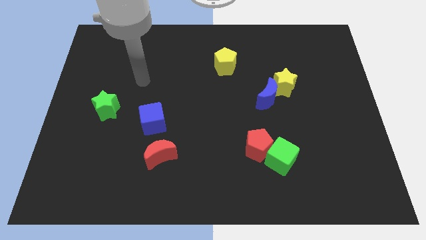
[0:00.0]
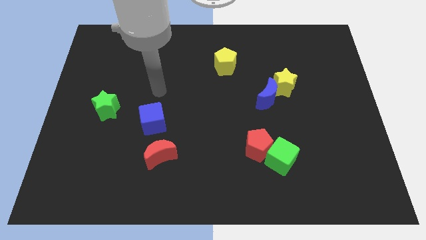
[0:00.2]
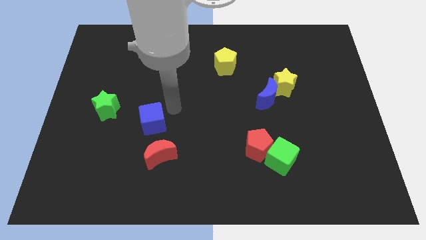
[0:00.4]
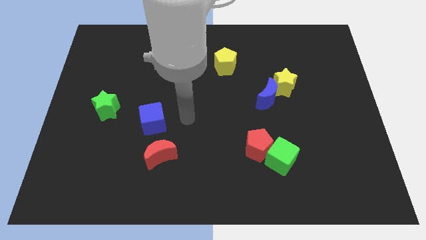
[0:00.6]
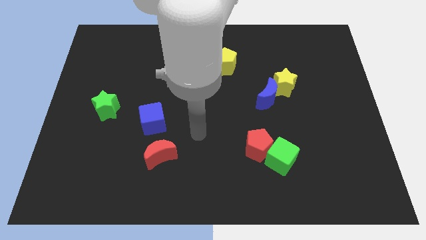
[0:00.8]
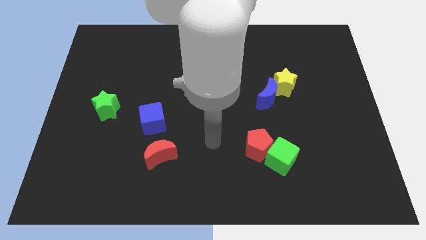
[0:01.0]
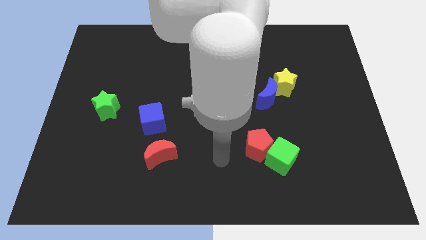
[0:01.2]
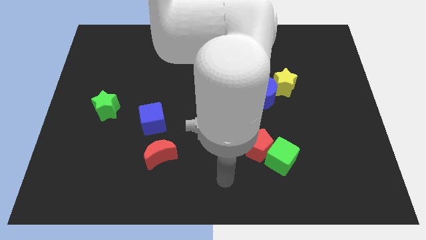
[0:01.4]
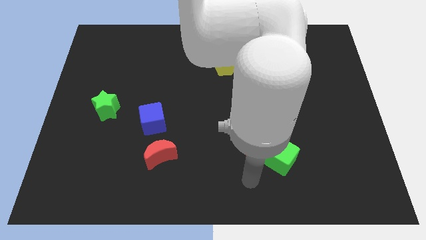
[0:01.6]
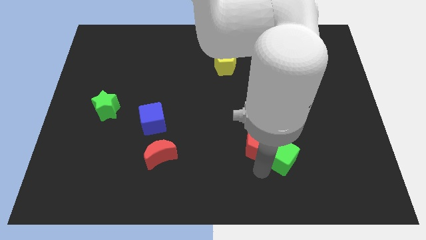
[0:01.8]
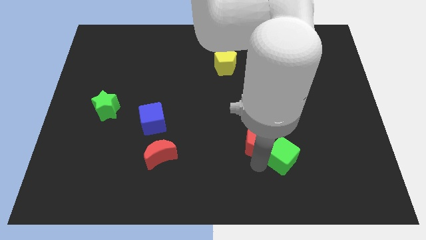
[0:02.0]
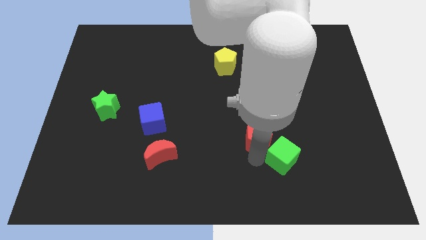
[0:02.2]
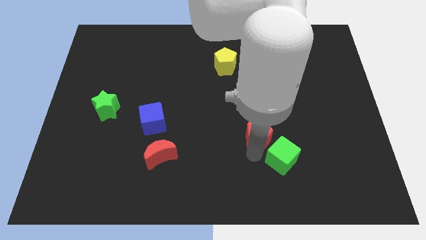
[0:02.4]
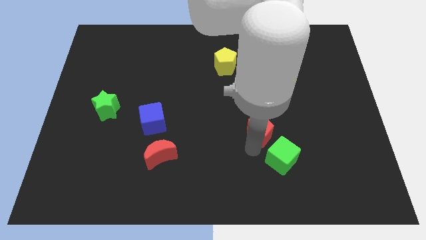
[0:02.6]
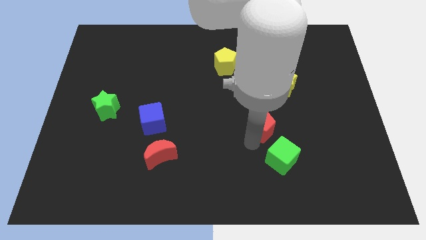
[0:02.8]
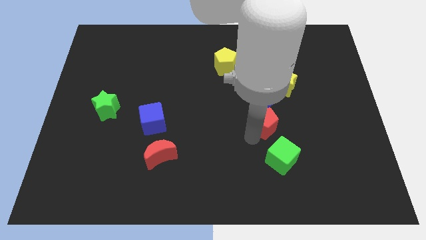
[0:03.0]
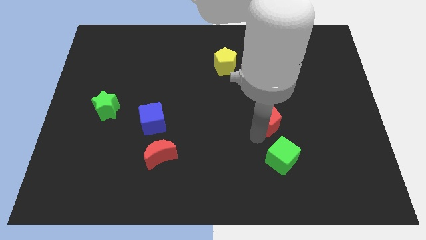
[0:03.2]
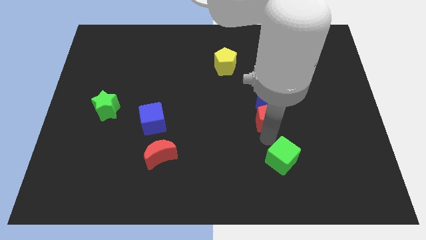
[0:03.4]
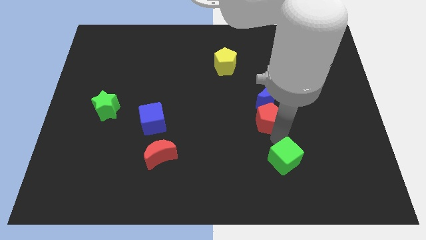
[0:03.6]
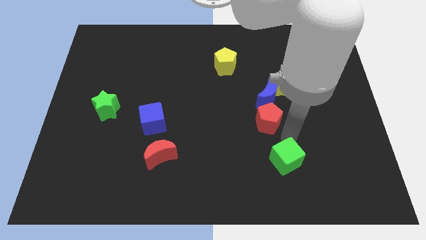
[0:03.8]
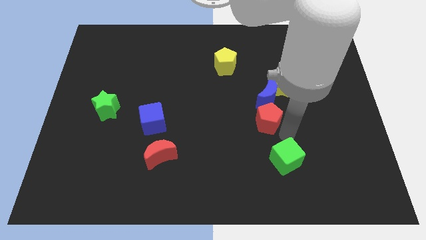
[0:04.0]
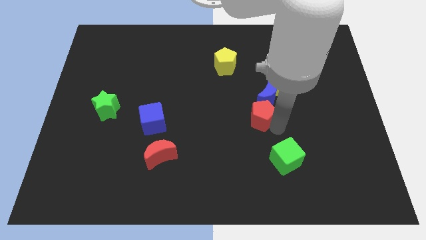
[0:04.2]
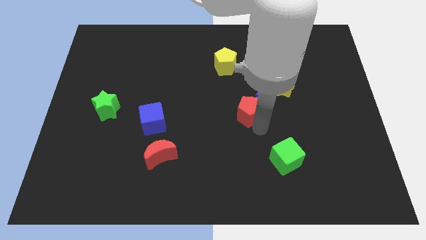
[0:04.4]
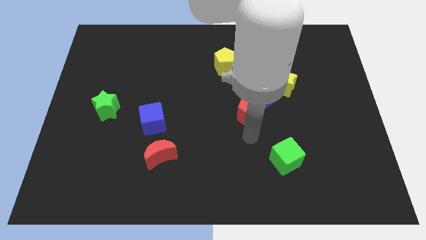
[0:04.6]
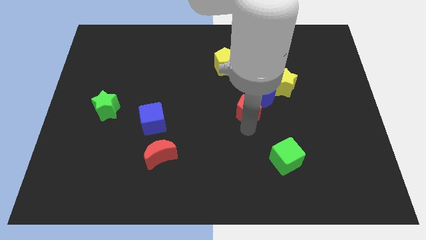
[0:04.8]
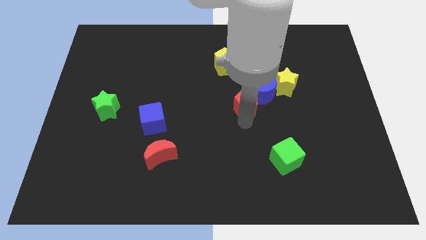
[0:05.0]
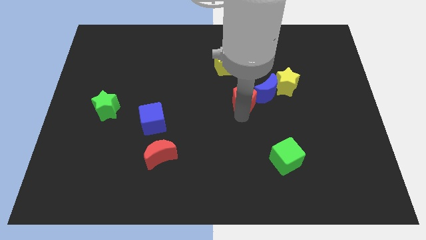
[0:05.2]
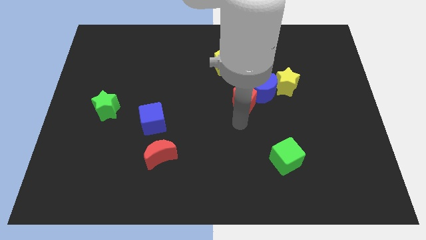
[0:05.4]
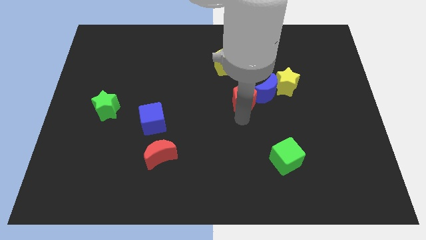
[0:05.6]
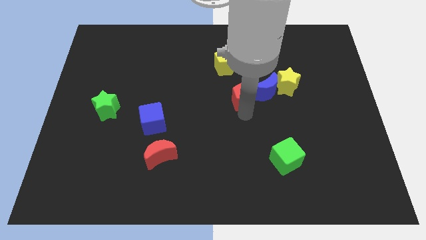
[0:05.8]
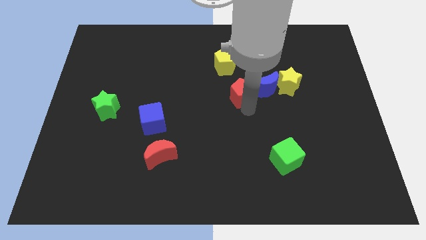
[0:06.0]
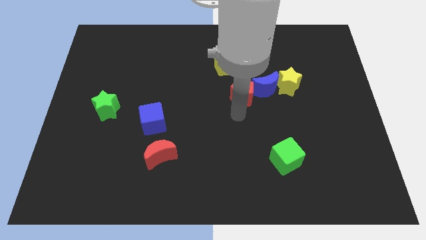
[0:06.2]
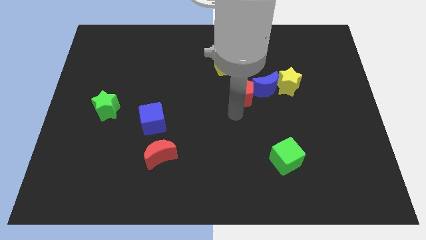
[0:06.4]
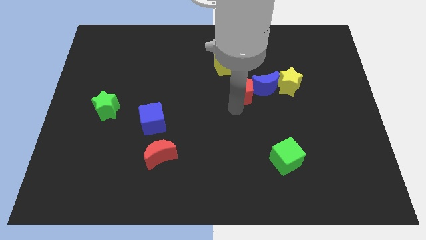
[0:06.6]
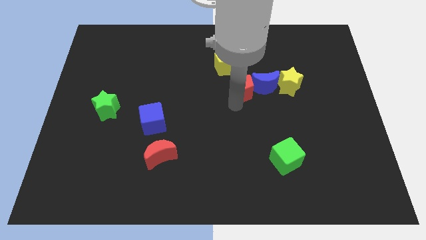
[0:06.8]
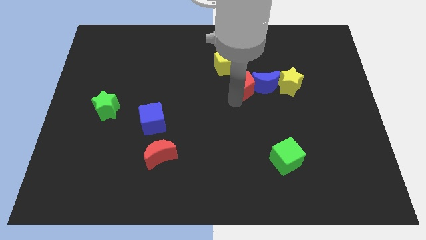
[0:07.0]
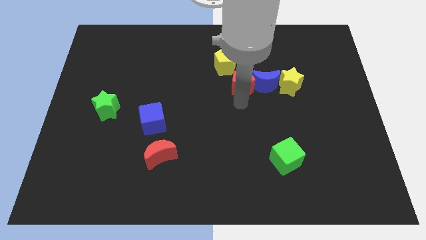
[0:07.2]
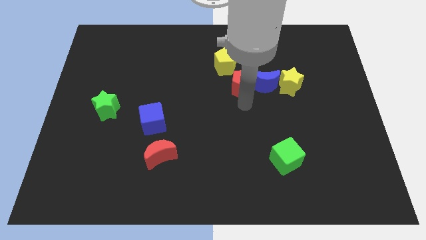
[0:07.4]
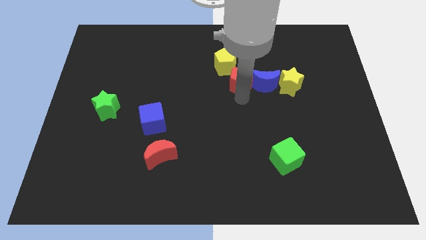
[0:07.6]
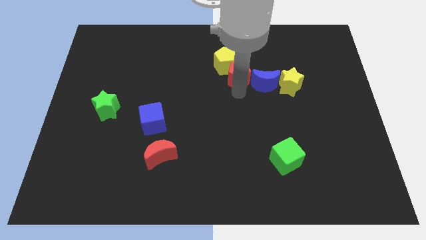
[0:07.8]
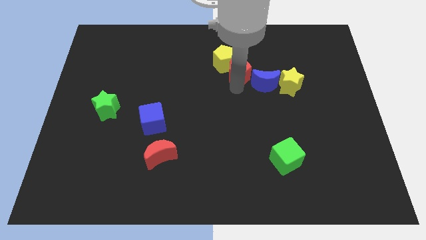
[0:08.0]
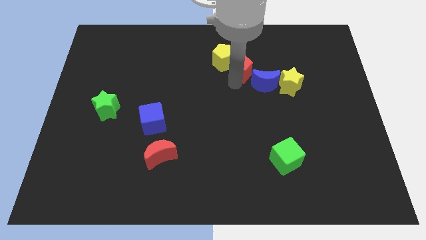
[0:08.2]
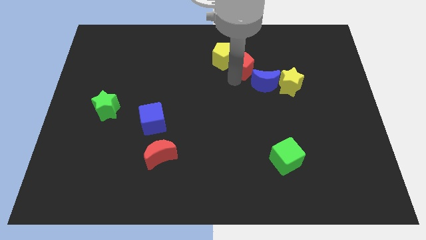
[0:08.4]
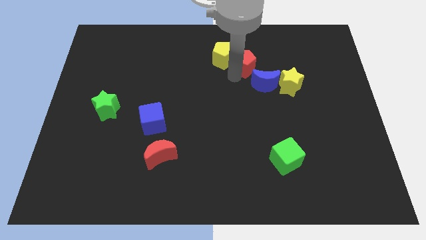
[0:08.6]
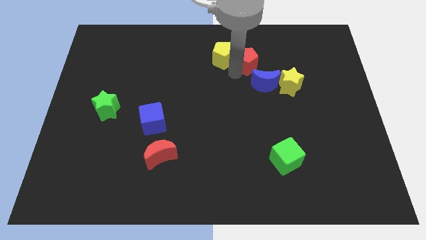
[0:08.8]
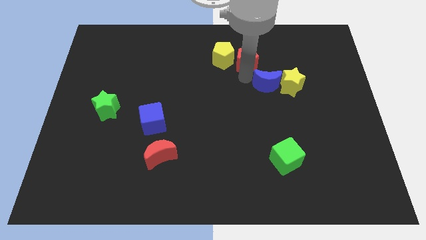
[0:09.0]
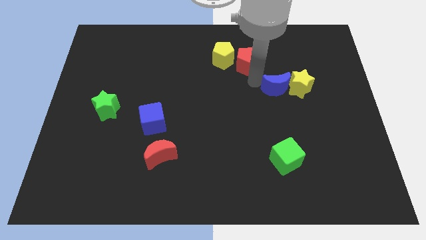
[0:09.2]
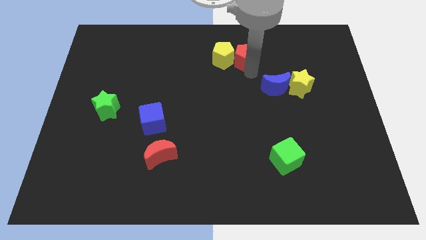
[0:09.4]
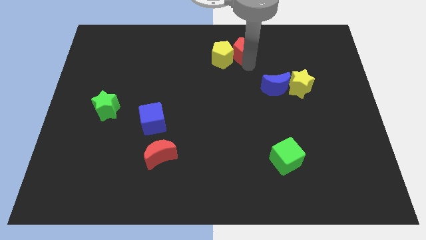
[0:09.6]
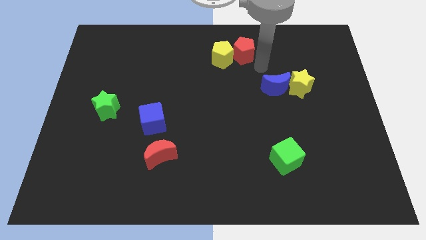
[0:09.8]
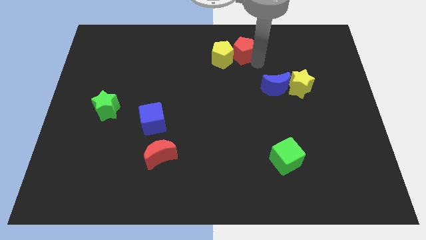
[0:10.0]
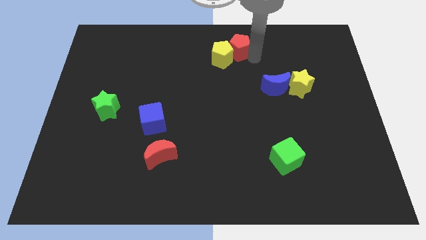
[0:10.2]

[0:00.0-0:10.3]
push the red pentagon to the top

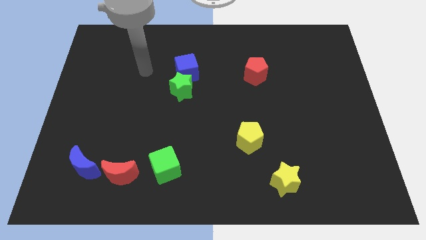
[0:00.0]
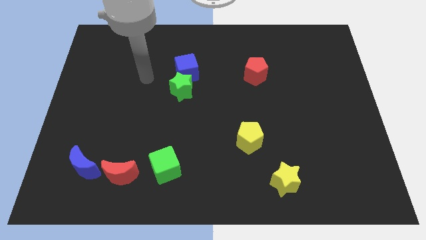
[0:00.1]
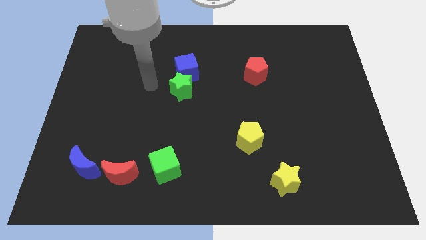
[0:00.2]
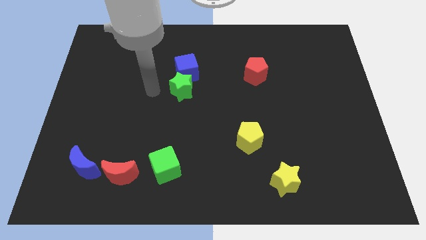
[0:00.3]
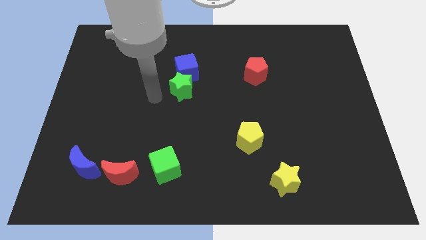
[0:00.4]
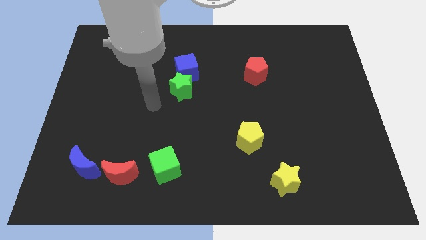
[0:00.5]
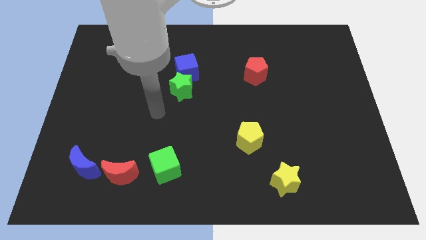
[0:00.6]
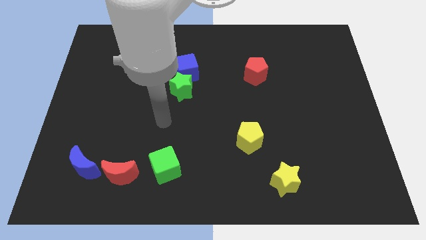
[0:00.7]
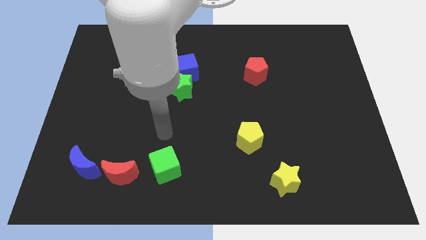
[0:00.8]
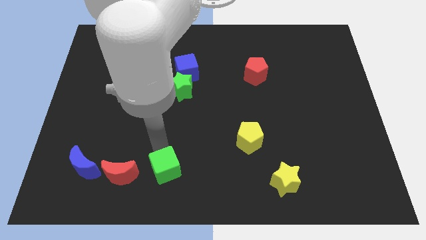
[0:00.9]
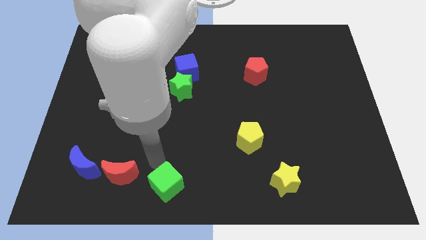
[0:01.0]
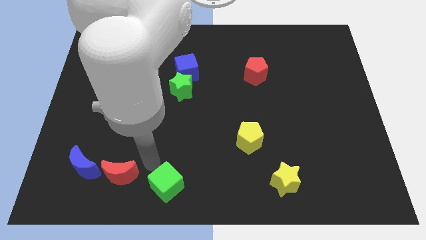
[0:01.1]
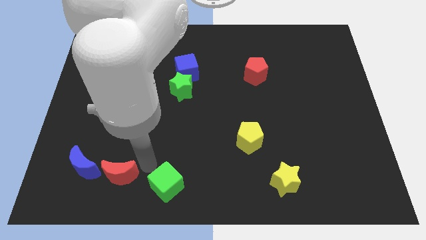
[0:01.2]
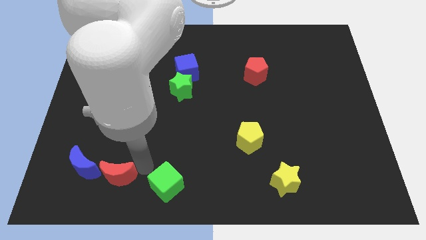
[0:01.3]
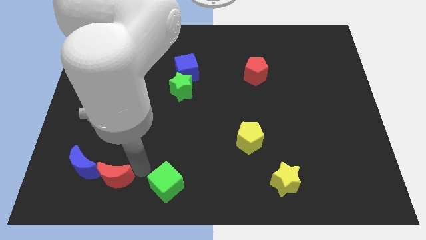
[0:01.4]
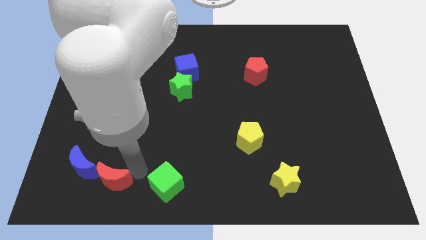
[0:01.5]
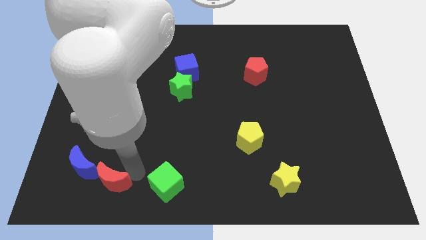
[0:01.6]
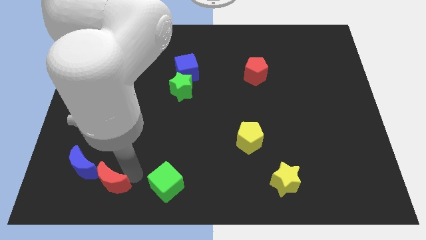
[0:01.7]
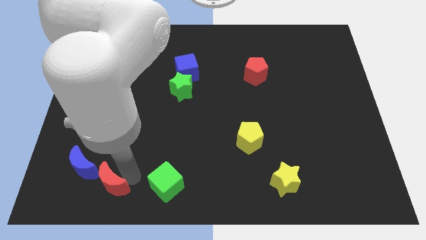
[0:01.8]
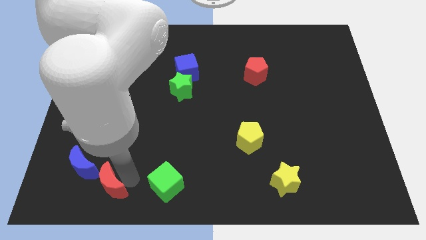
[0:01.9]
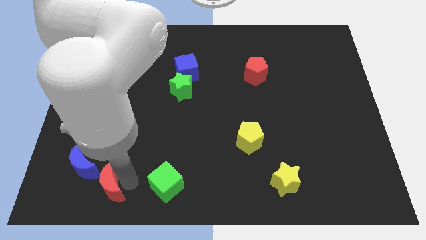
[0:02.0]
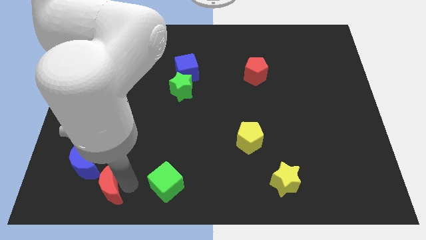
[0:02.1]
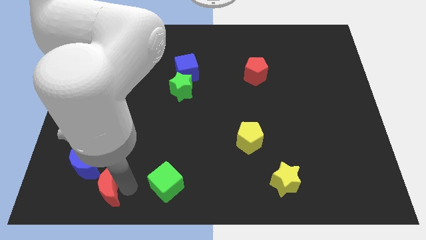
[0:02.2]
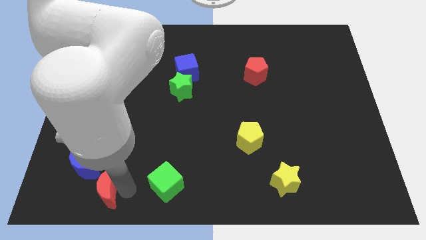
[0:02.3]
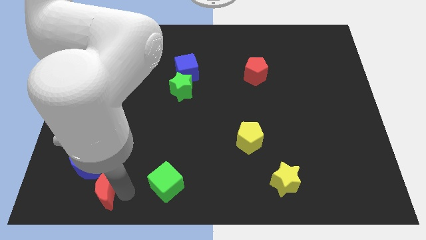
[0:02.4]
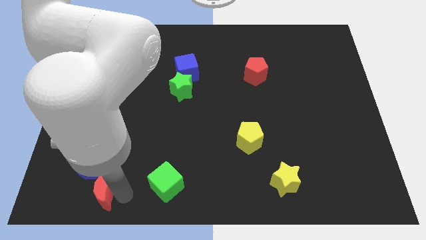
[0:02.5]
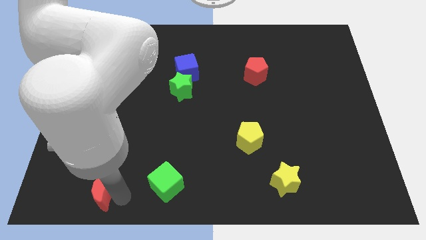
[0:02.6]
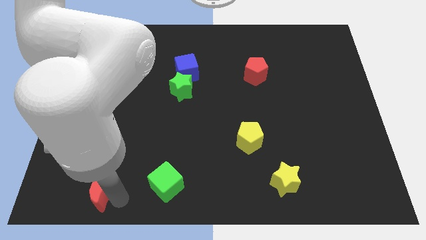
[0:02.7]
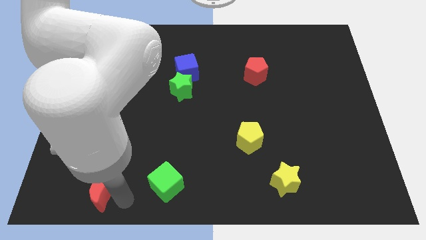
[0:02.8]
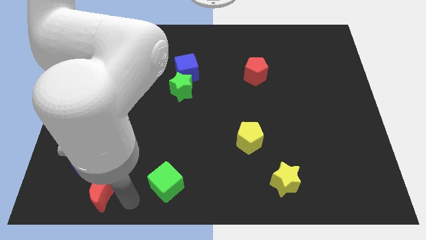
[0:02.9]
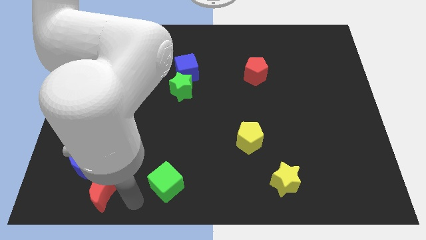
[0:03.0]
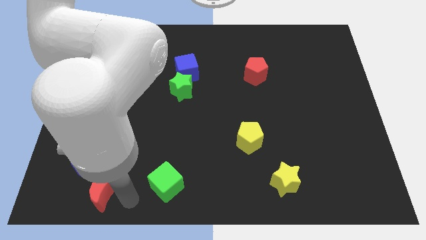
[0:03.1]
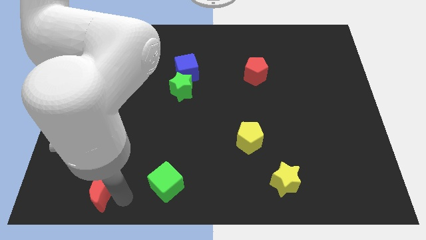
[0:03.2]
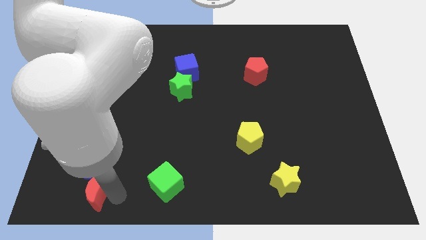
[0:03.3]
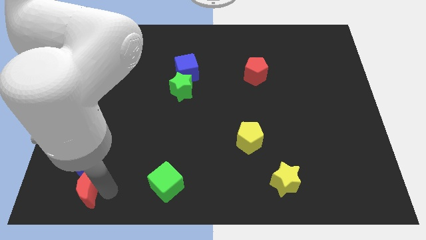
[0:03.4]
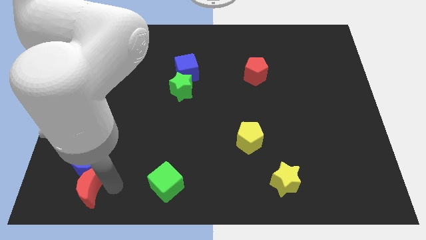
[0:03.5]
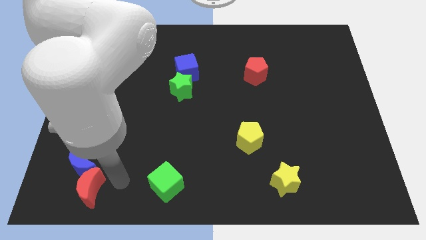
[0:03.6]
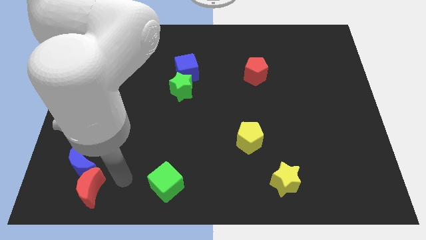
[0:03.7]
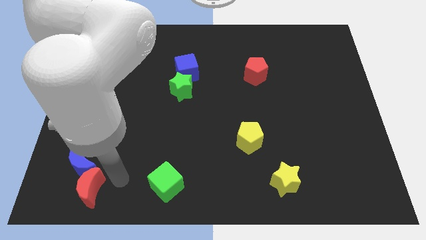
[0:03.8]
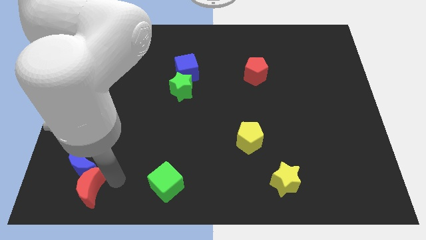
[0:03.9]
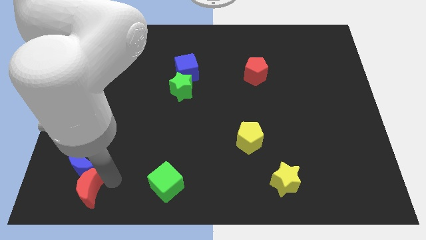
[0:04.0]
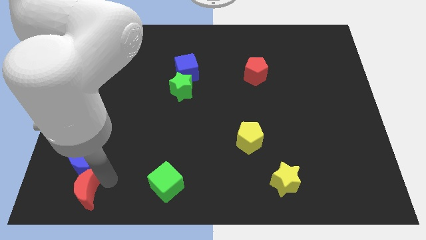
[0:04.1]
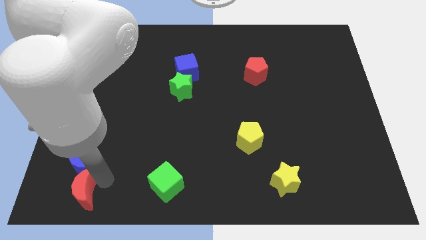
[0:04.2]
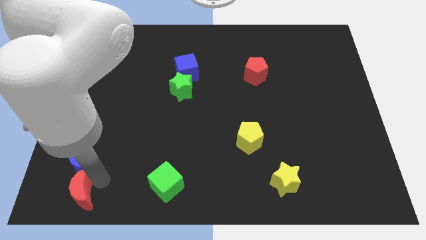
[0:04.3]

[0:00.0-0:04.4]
move the red moon to the bottom left corner
